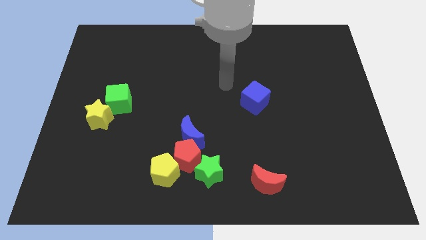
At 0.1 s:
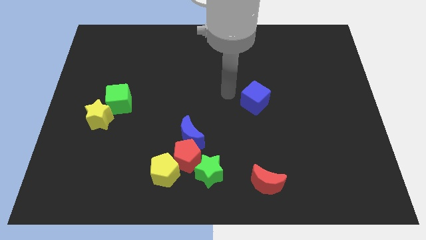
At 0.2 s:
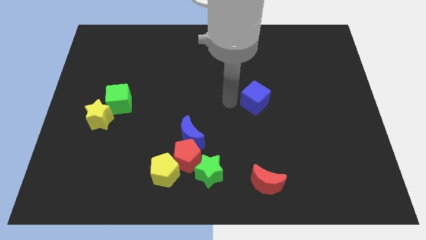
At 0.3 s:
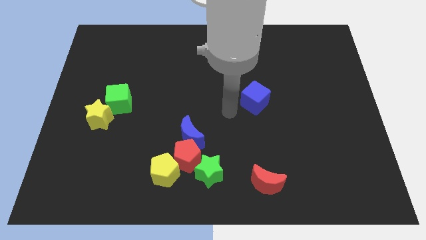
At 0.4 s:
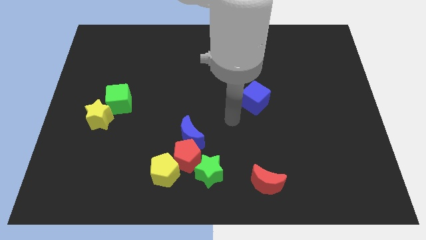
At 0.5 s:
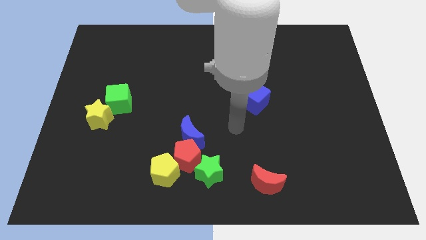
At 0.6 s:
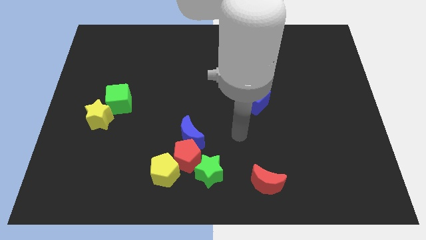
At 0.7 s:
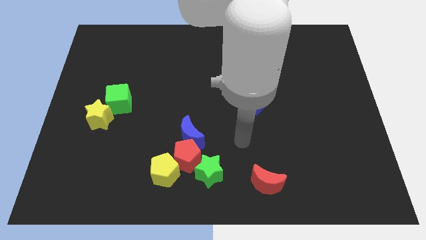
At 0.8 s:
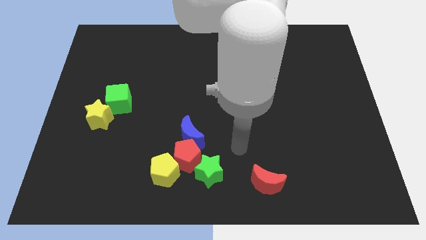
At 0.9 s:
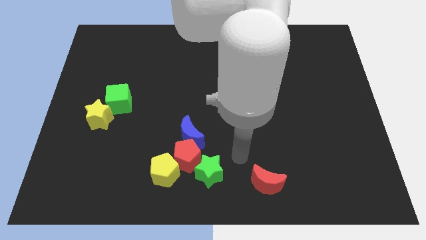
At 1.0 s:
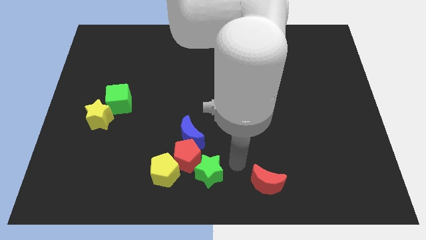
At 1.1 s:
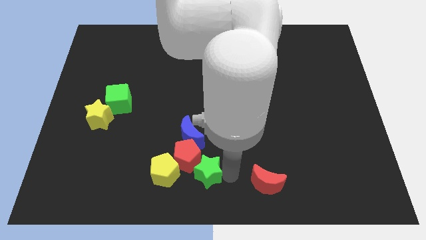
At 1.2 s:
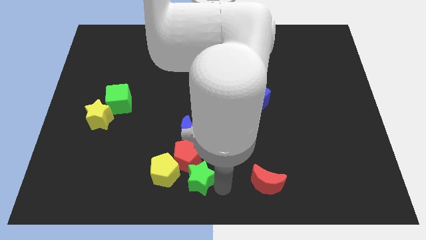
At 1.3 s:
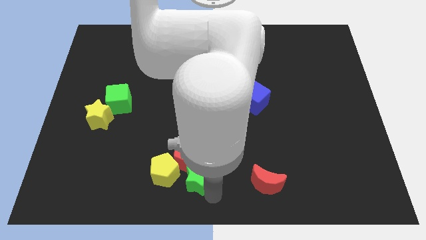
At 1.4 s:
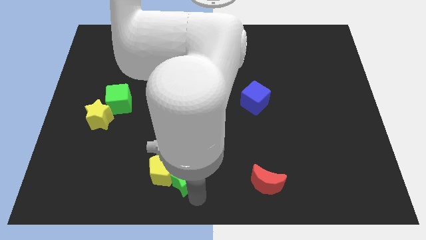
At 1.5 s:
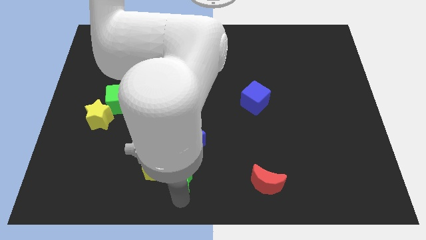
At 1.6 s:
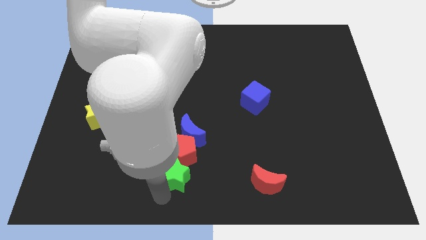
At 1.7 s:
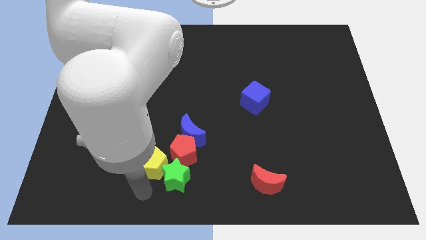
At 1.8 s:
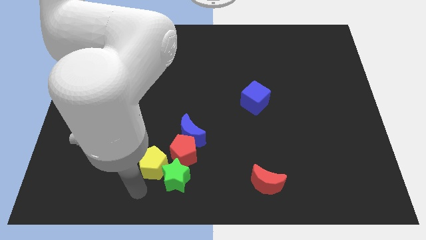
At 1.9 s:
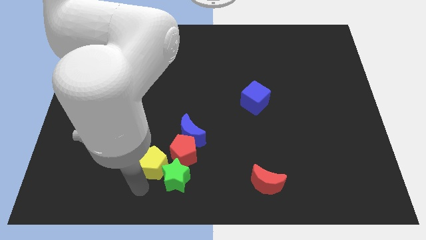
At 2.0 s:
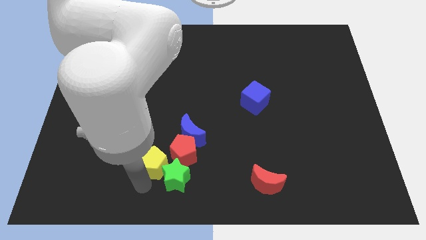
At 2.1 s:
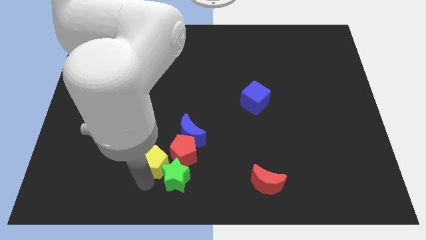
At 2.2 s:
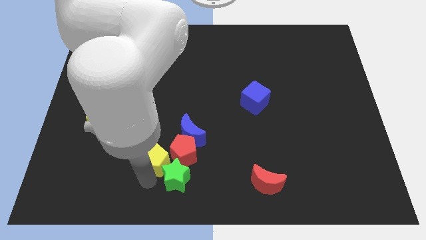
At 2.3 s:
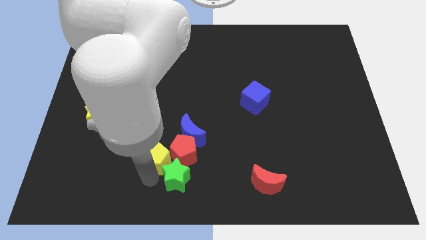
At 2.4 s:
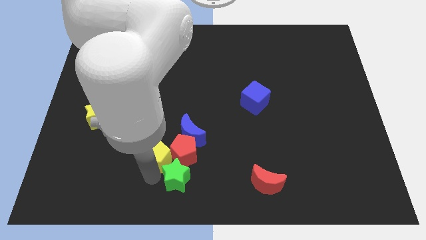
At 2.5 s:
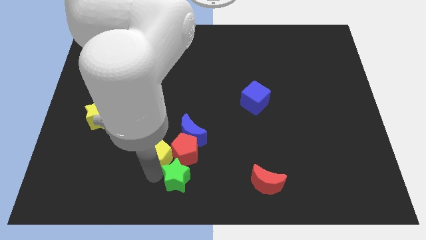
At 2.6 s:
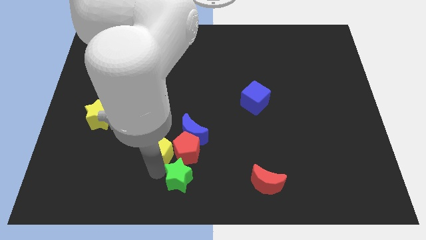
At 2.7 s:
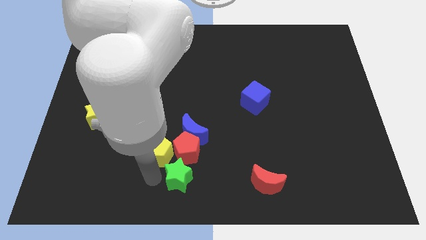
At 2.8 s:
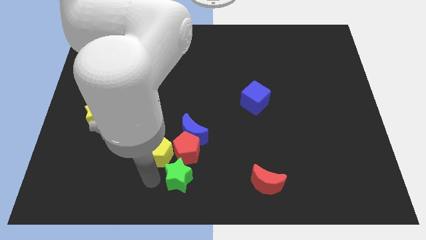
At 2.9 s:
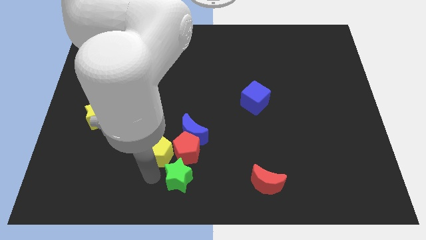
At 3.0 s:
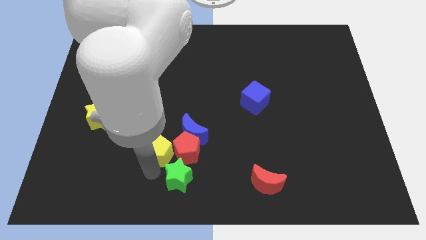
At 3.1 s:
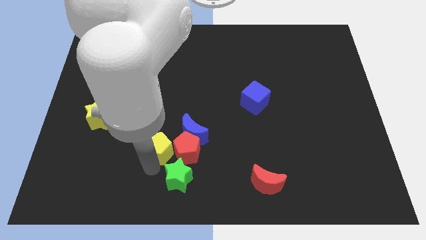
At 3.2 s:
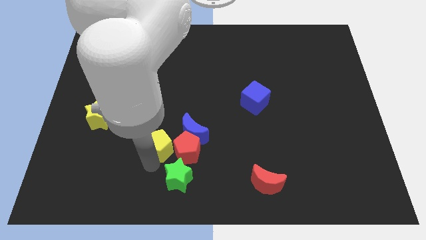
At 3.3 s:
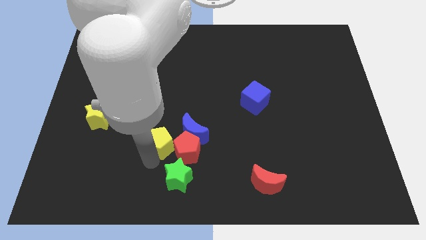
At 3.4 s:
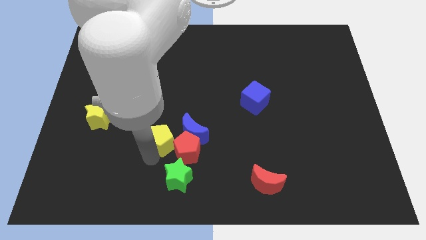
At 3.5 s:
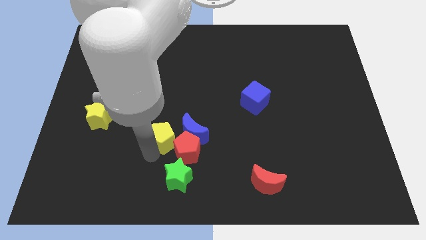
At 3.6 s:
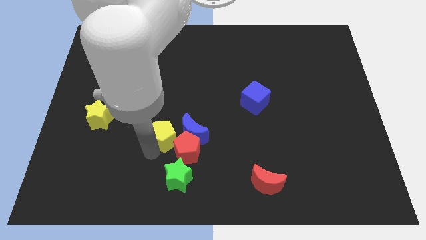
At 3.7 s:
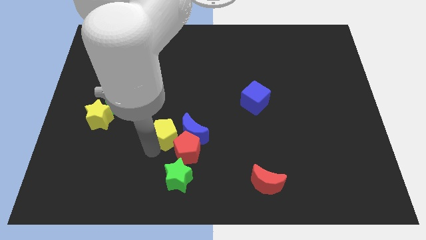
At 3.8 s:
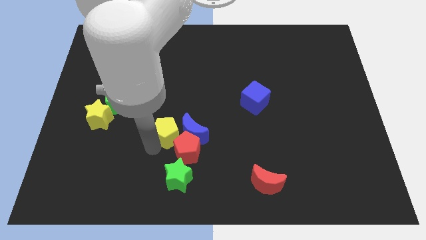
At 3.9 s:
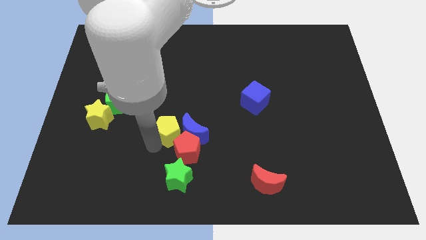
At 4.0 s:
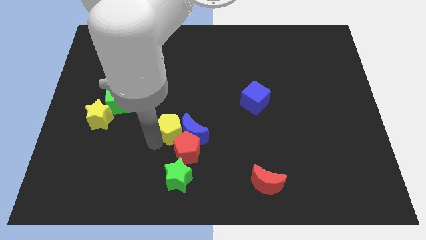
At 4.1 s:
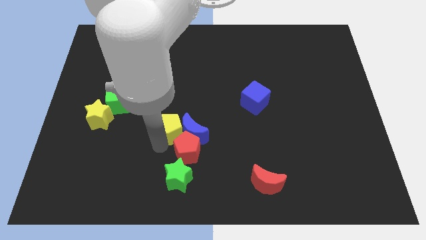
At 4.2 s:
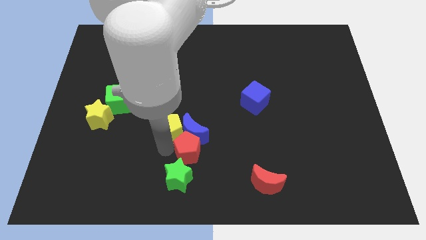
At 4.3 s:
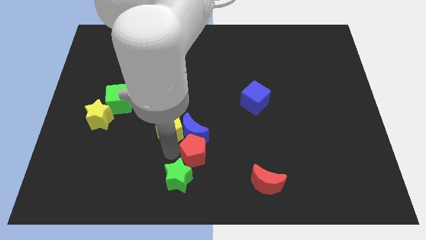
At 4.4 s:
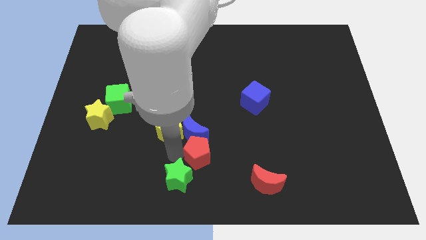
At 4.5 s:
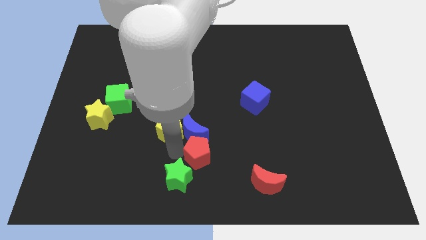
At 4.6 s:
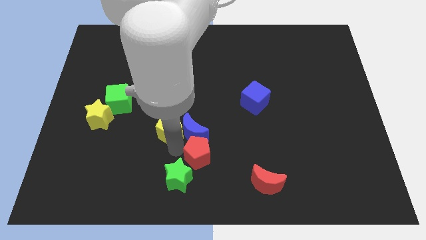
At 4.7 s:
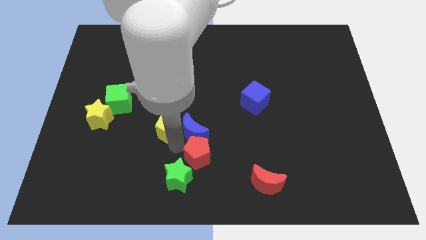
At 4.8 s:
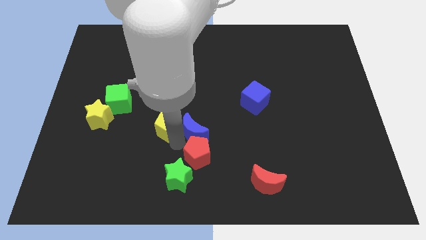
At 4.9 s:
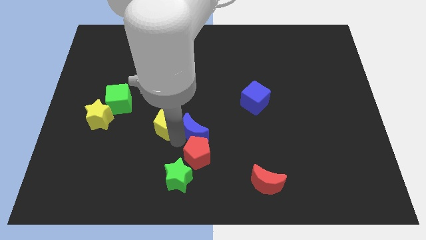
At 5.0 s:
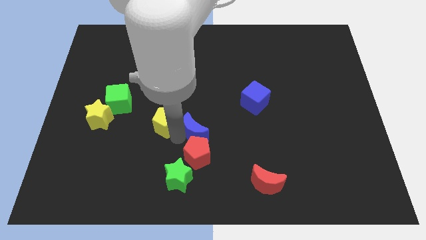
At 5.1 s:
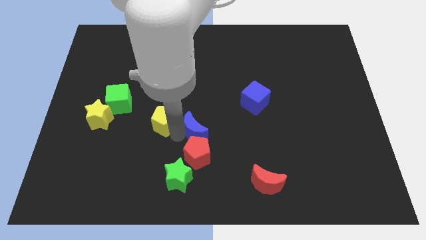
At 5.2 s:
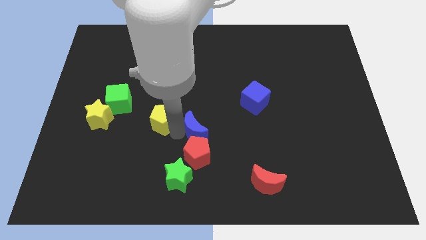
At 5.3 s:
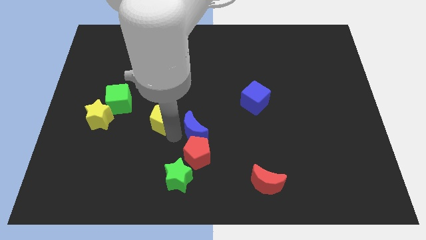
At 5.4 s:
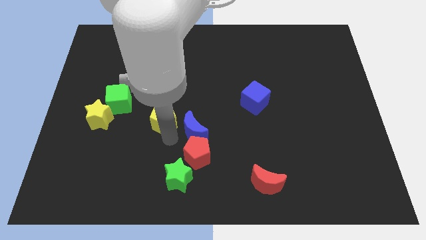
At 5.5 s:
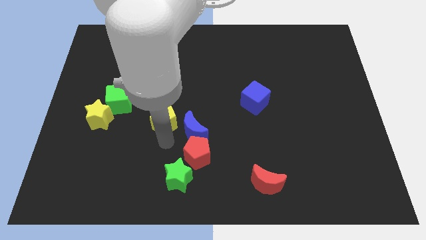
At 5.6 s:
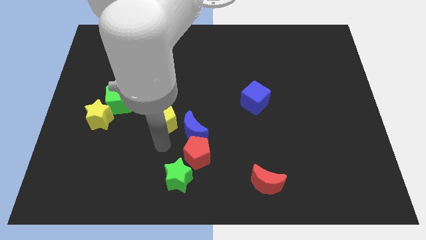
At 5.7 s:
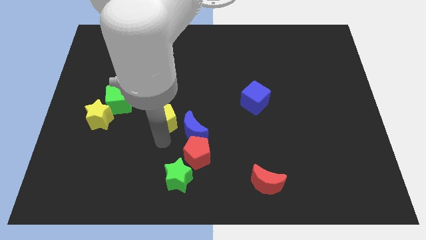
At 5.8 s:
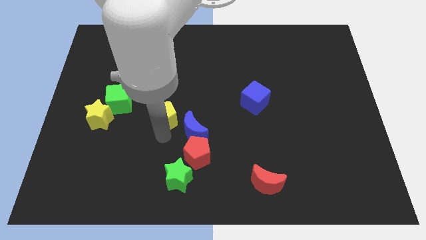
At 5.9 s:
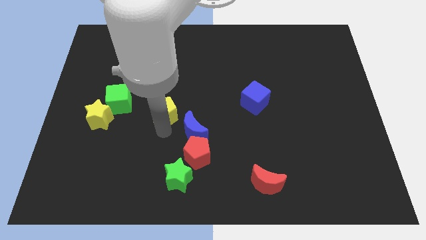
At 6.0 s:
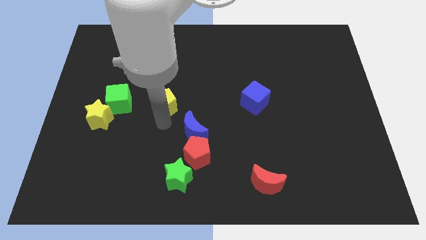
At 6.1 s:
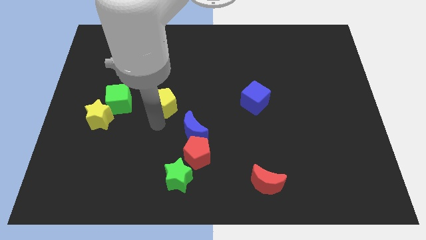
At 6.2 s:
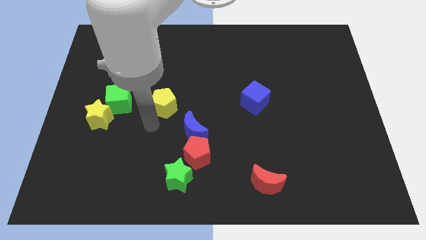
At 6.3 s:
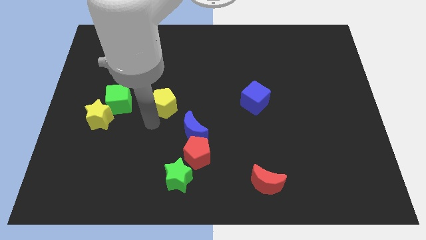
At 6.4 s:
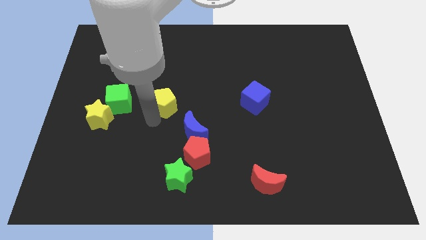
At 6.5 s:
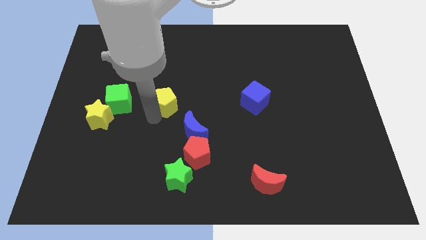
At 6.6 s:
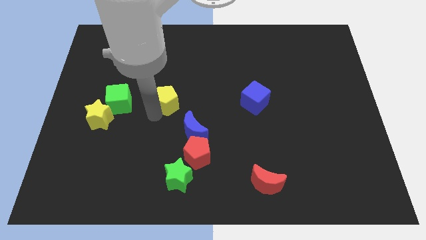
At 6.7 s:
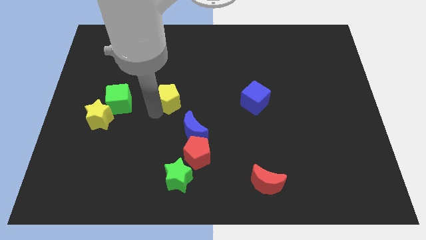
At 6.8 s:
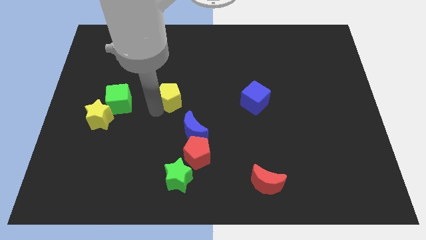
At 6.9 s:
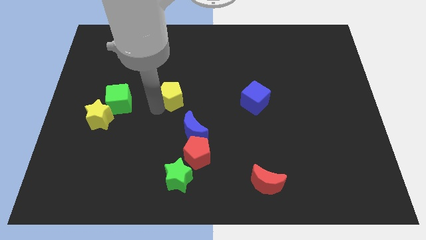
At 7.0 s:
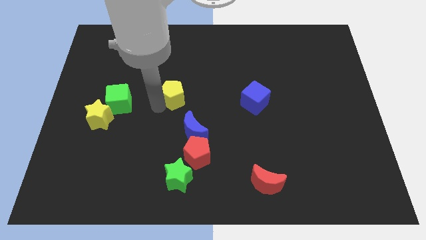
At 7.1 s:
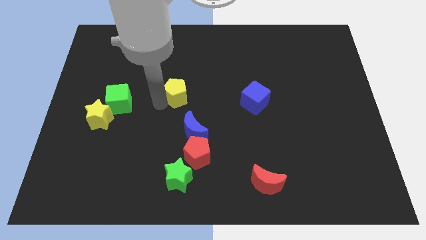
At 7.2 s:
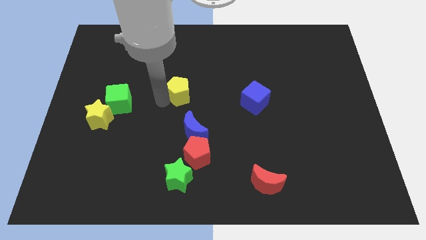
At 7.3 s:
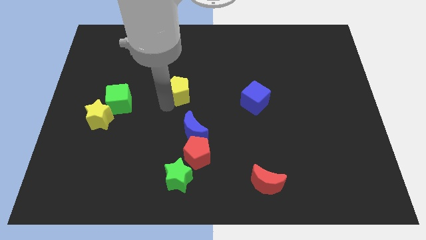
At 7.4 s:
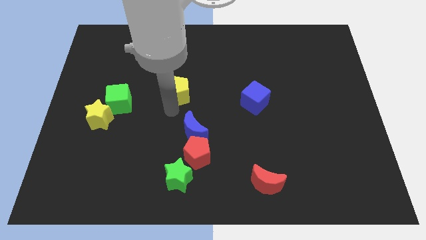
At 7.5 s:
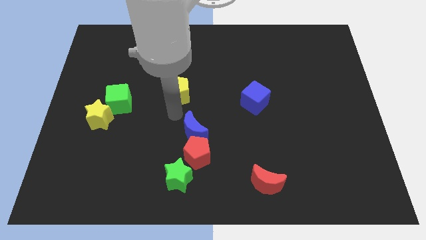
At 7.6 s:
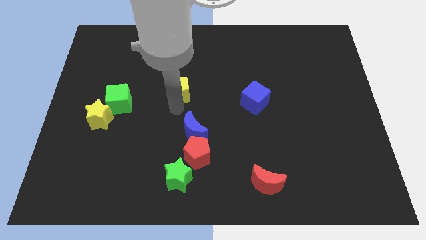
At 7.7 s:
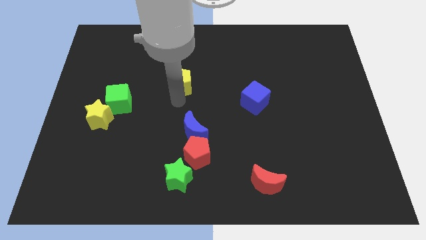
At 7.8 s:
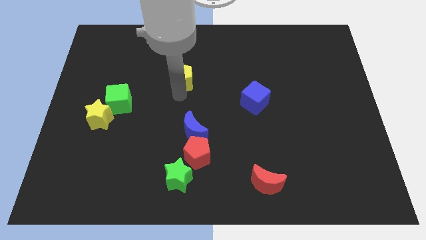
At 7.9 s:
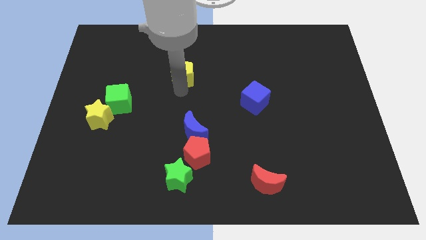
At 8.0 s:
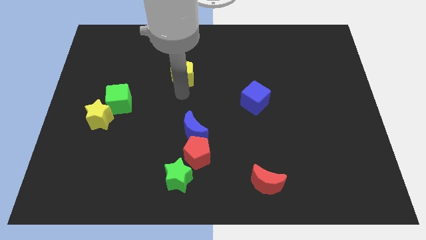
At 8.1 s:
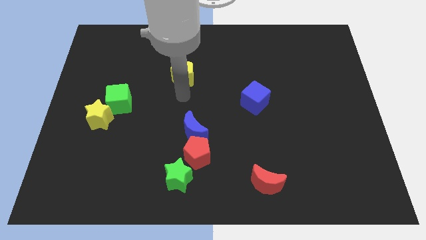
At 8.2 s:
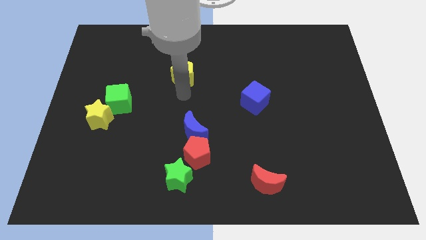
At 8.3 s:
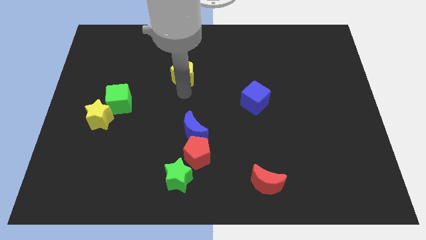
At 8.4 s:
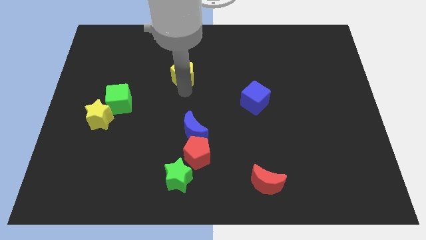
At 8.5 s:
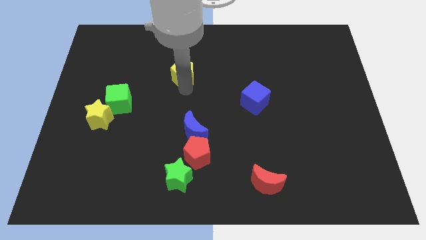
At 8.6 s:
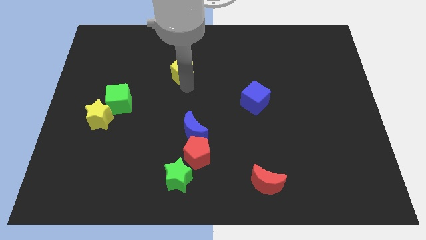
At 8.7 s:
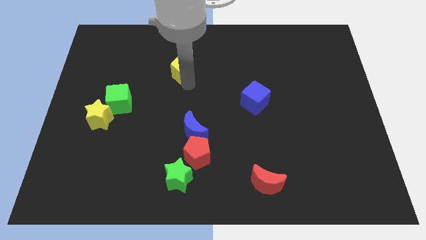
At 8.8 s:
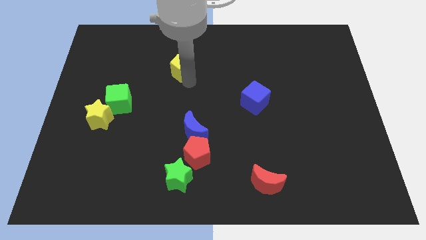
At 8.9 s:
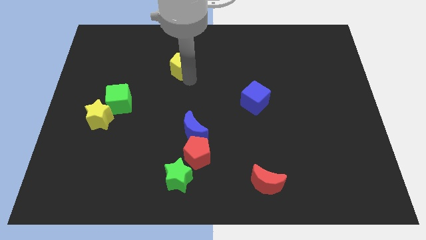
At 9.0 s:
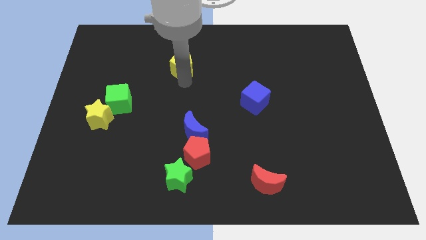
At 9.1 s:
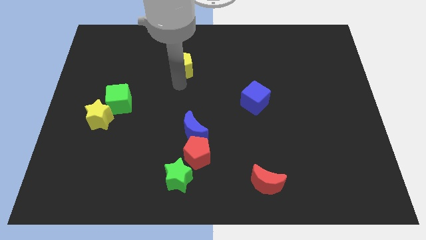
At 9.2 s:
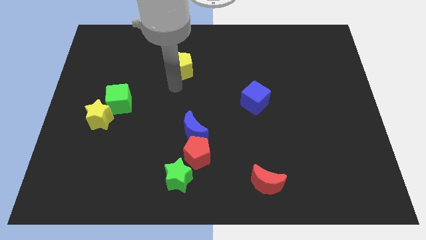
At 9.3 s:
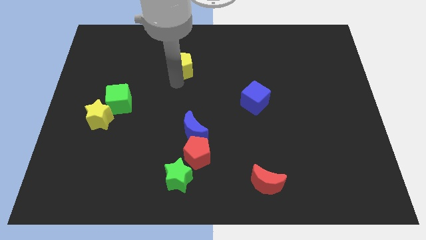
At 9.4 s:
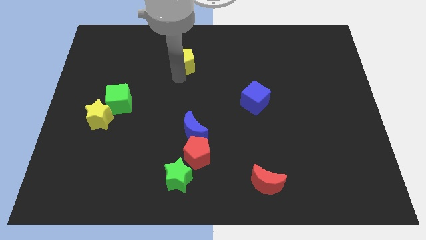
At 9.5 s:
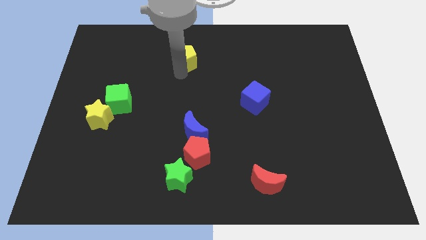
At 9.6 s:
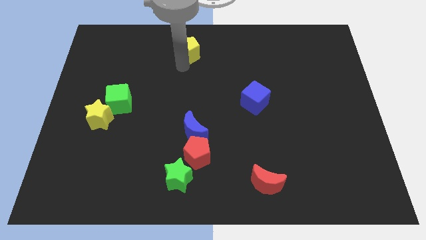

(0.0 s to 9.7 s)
push the yellow pentagon to the top
